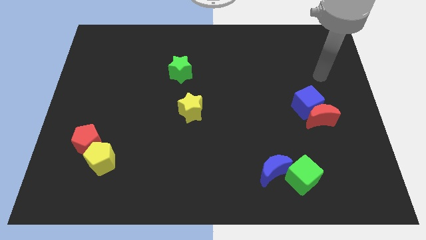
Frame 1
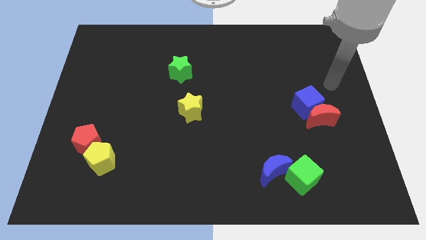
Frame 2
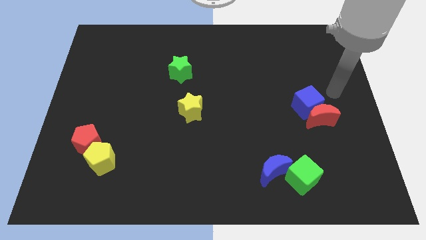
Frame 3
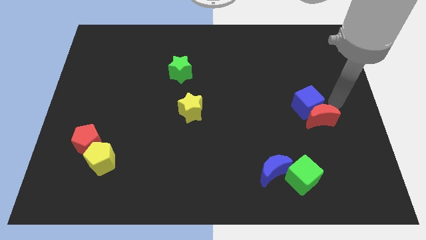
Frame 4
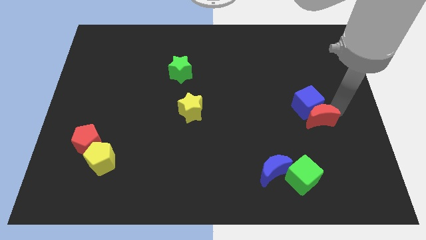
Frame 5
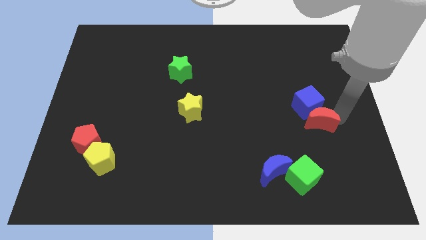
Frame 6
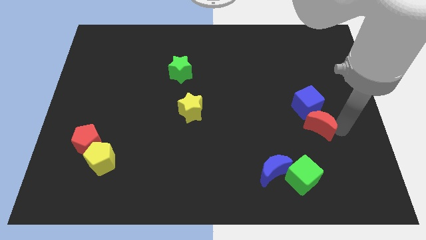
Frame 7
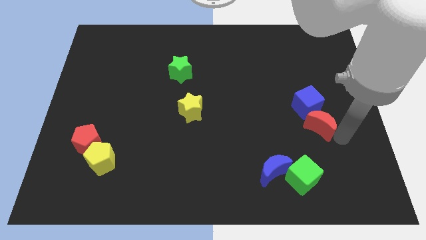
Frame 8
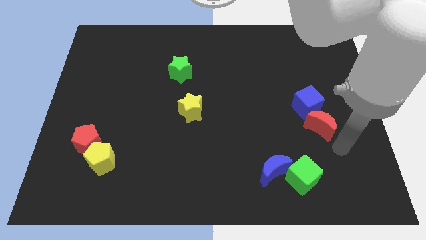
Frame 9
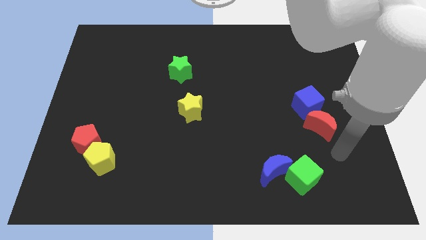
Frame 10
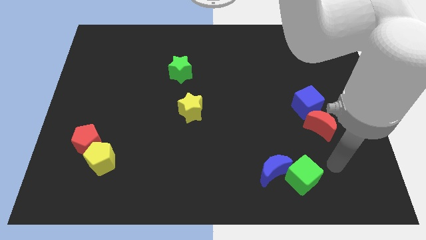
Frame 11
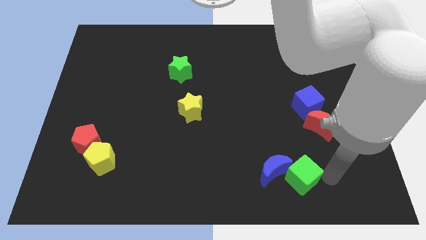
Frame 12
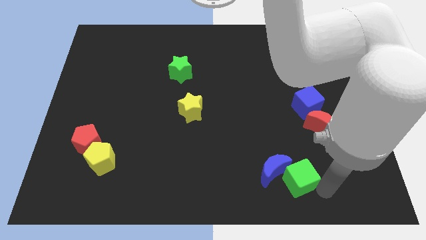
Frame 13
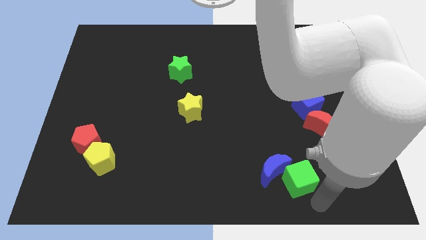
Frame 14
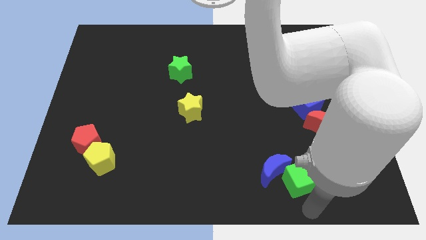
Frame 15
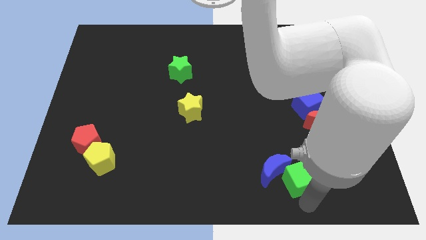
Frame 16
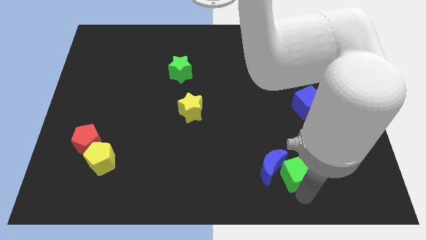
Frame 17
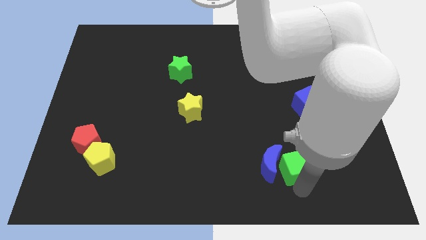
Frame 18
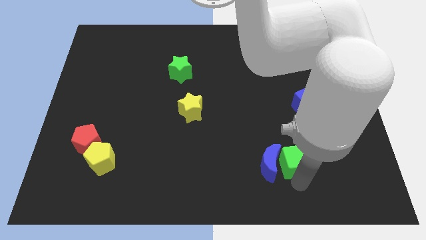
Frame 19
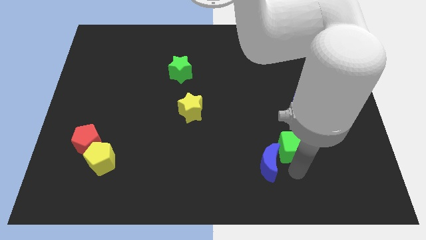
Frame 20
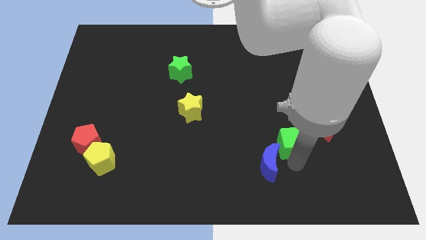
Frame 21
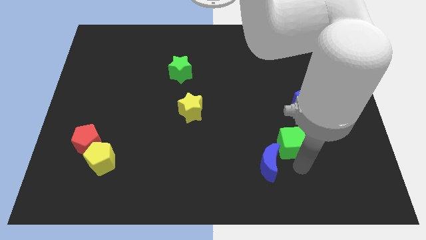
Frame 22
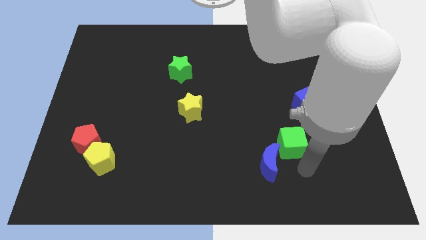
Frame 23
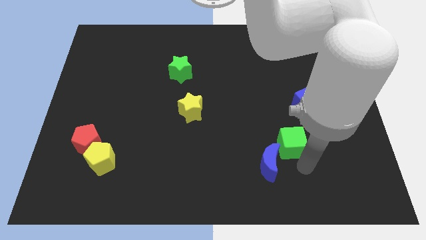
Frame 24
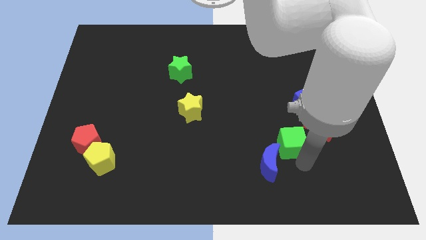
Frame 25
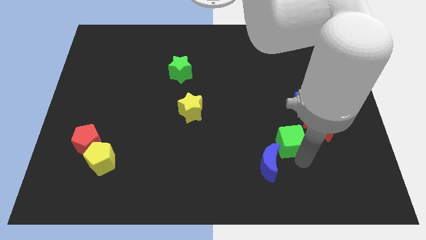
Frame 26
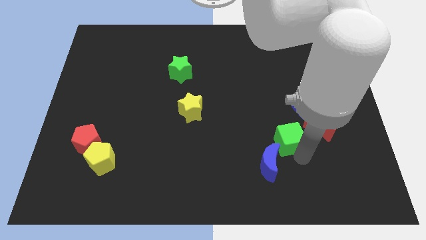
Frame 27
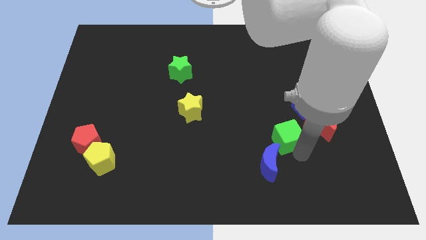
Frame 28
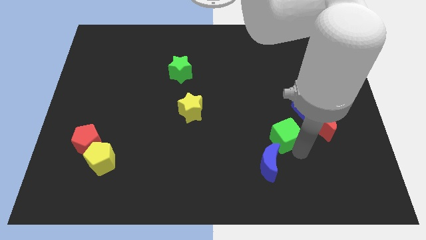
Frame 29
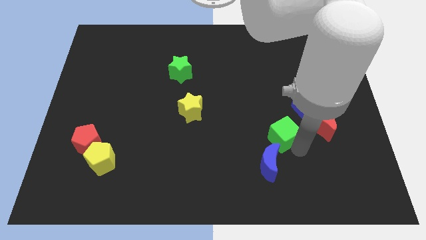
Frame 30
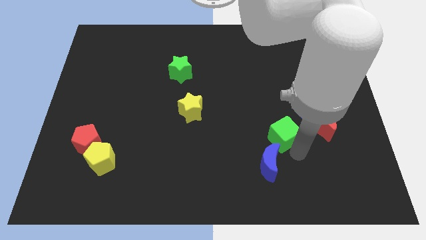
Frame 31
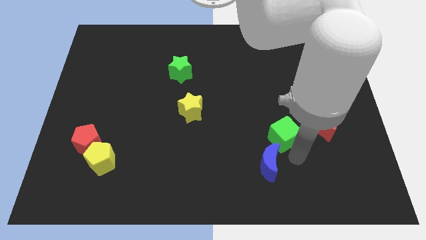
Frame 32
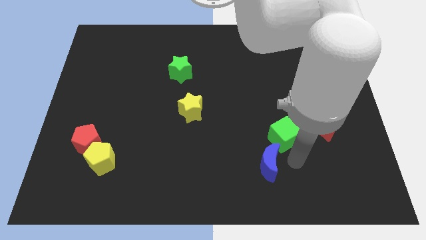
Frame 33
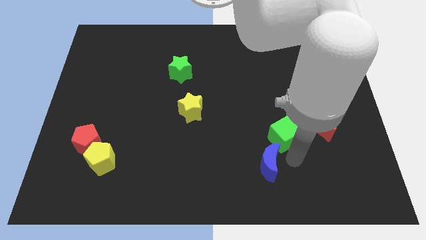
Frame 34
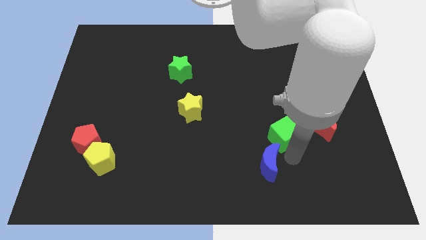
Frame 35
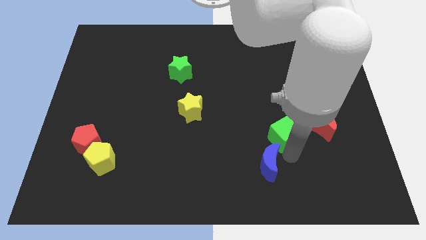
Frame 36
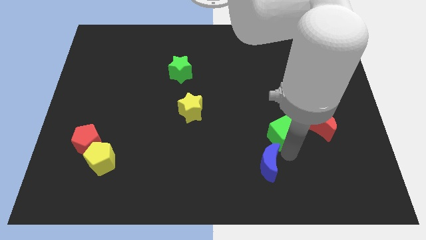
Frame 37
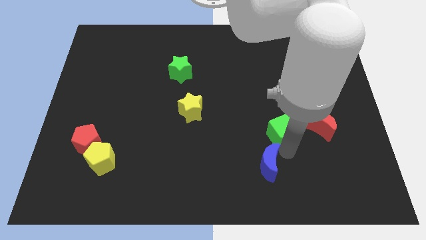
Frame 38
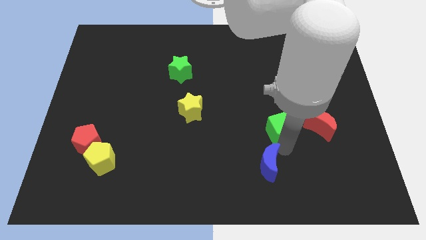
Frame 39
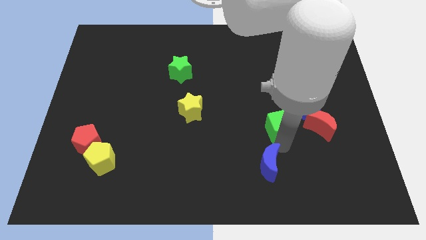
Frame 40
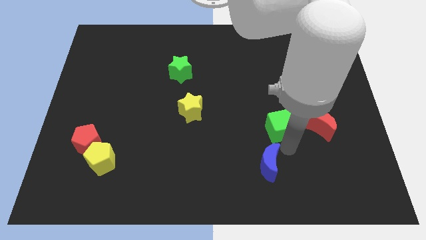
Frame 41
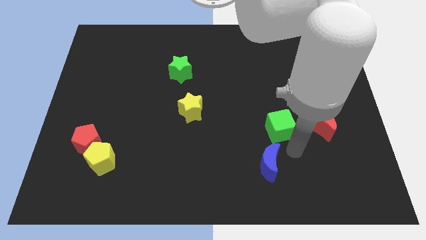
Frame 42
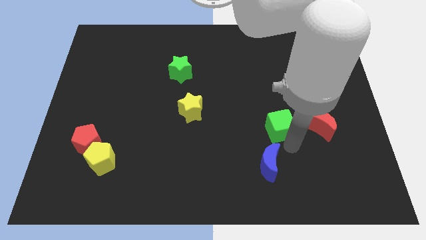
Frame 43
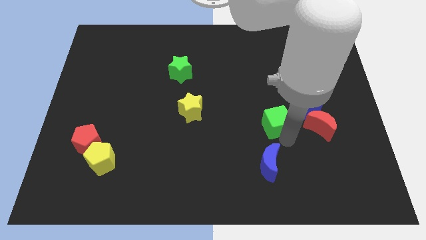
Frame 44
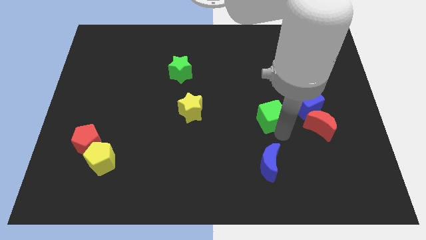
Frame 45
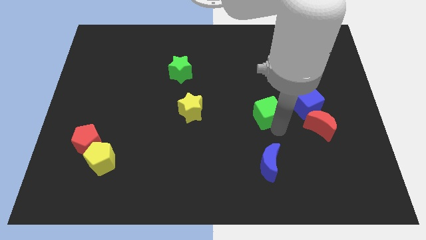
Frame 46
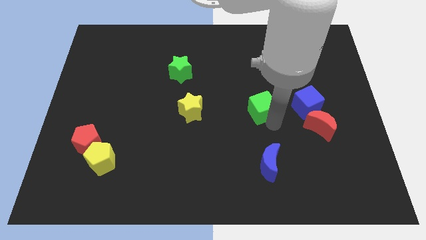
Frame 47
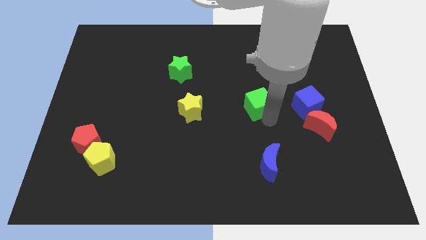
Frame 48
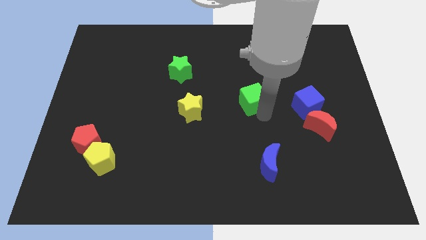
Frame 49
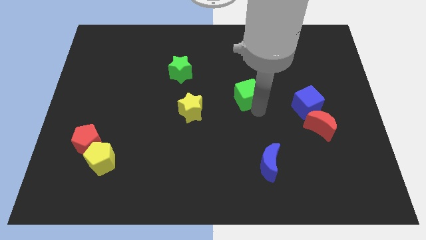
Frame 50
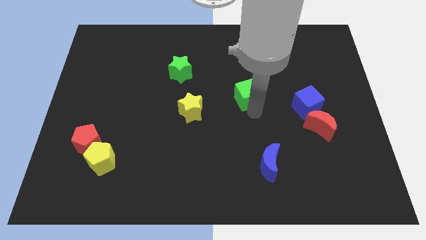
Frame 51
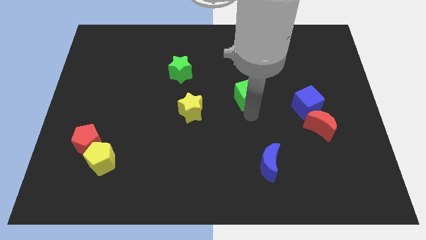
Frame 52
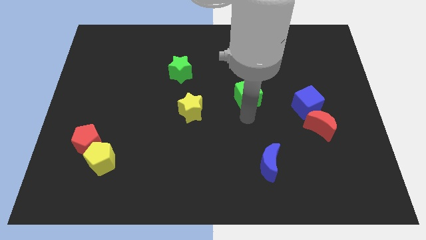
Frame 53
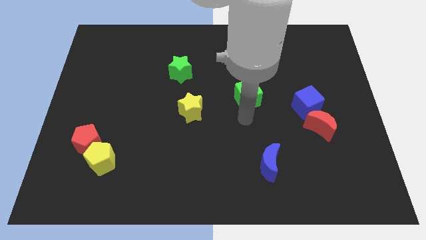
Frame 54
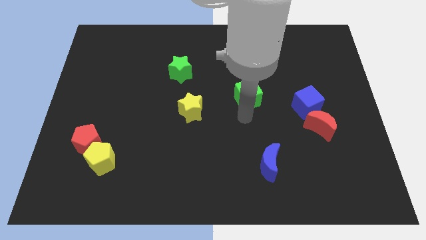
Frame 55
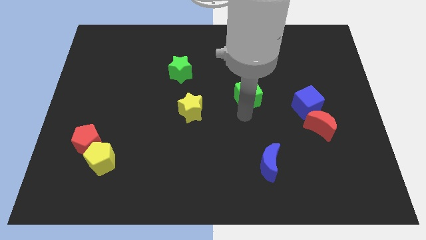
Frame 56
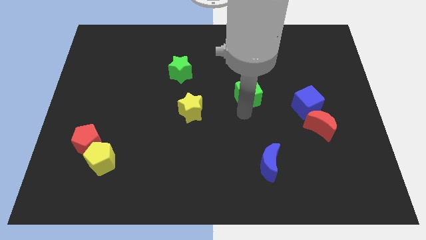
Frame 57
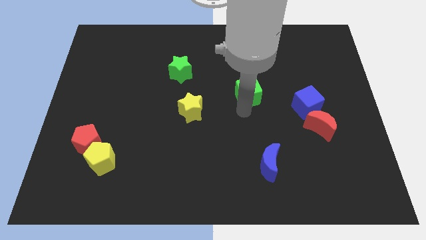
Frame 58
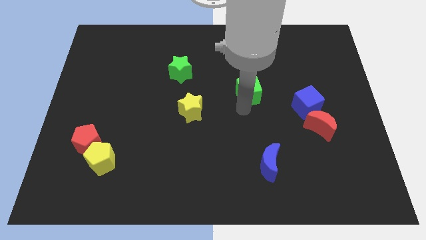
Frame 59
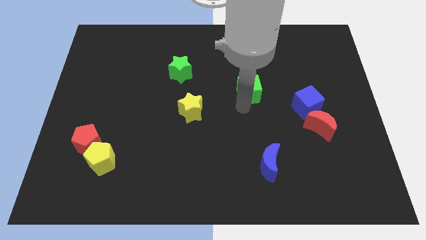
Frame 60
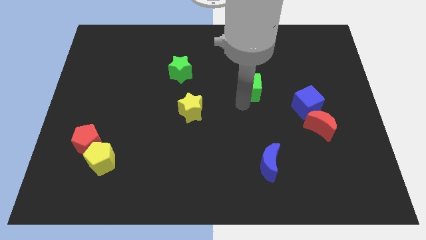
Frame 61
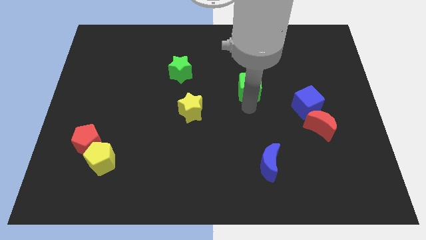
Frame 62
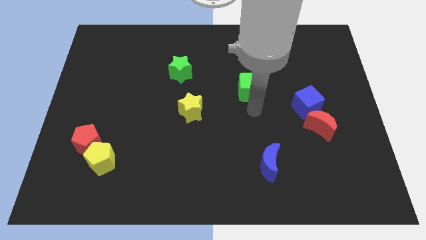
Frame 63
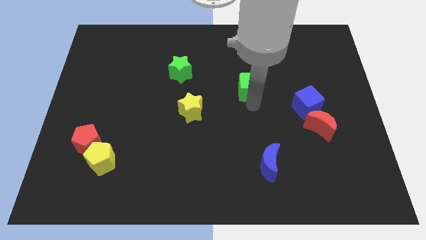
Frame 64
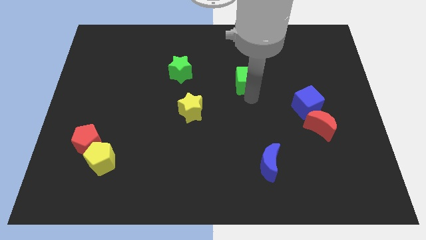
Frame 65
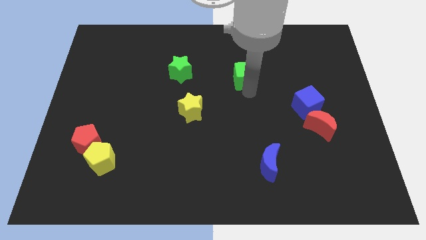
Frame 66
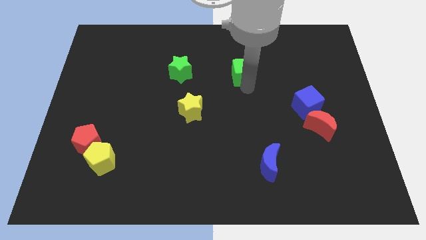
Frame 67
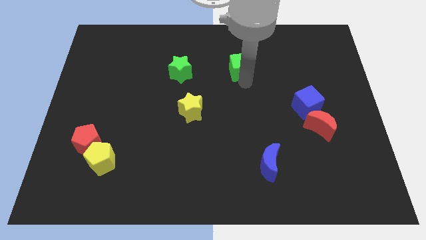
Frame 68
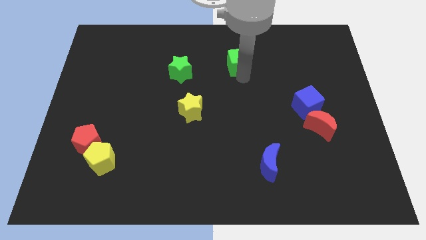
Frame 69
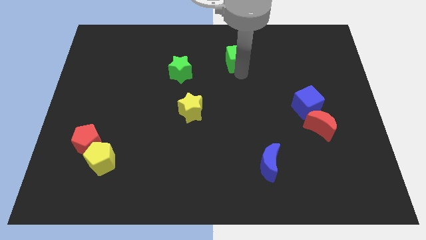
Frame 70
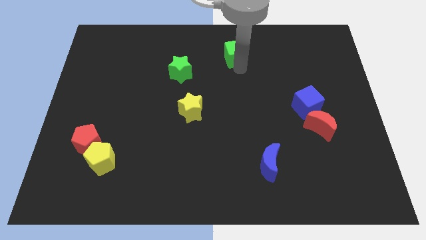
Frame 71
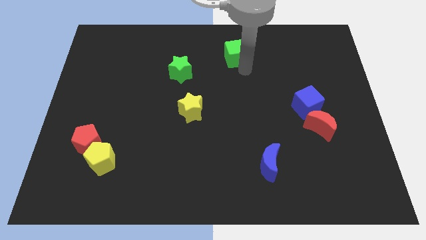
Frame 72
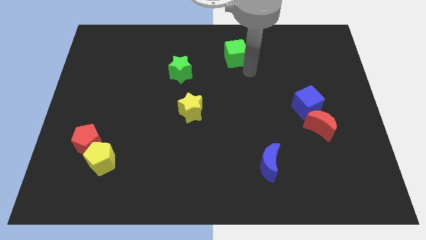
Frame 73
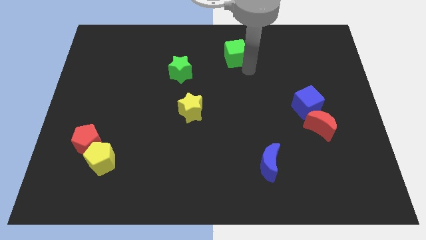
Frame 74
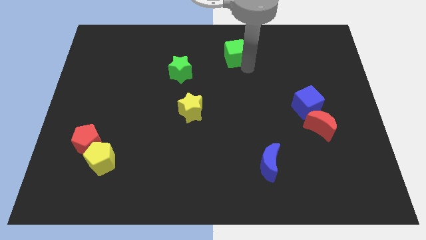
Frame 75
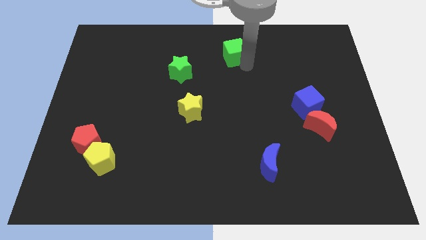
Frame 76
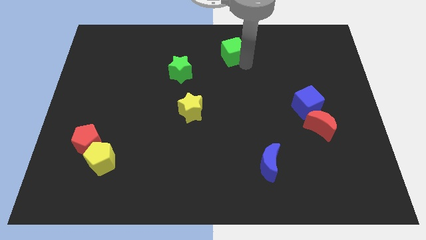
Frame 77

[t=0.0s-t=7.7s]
put the green cube to the top
